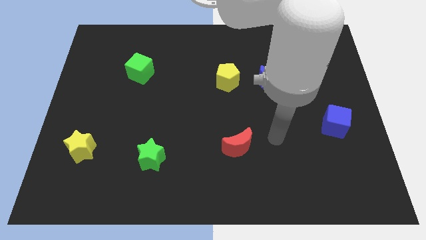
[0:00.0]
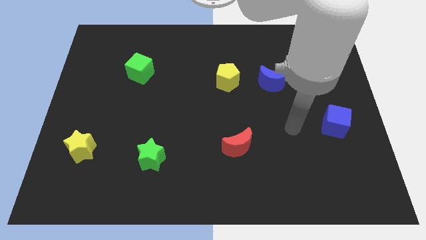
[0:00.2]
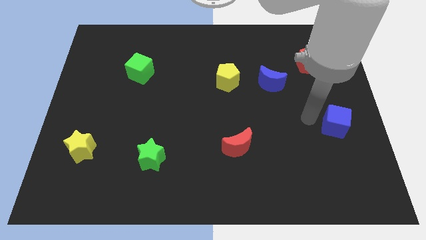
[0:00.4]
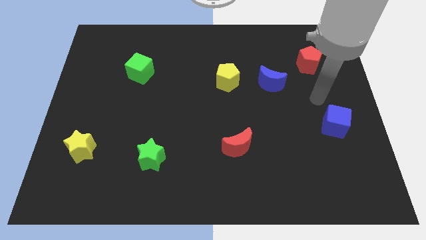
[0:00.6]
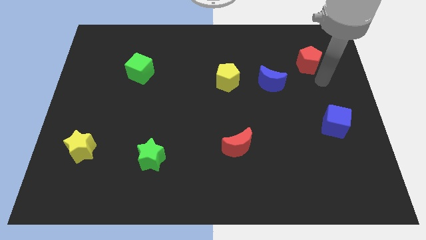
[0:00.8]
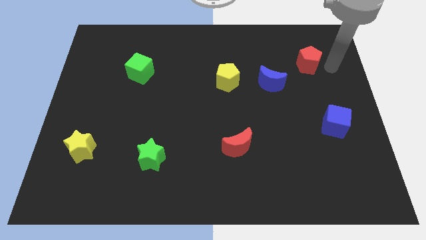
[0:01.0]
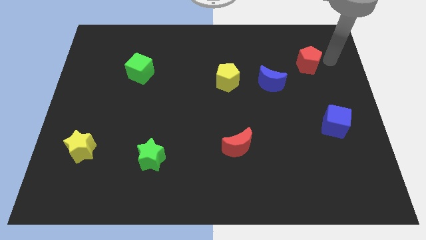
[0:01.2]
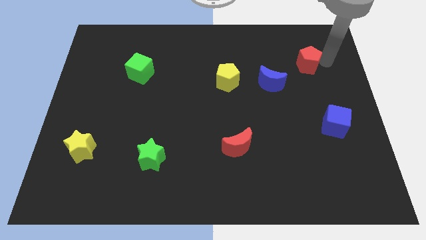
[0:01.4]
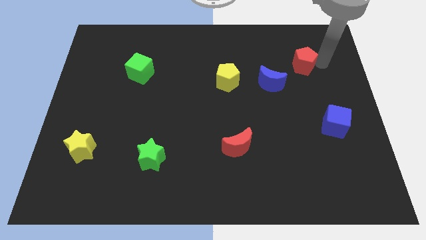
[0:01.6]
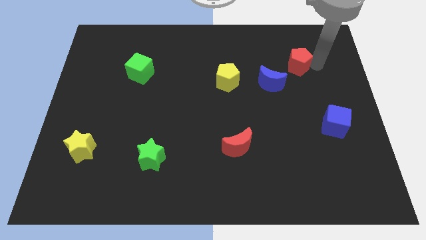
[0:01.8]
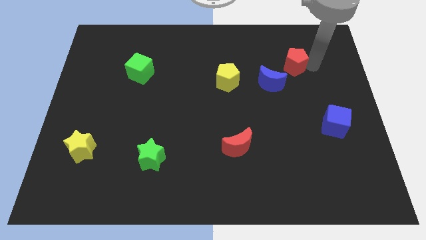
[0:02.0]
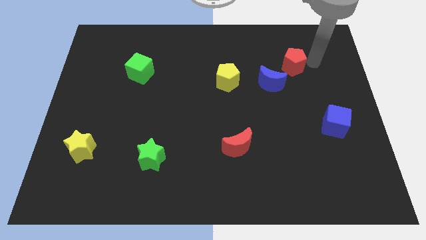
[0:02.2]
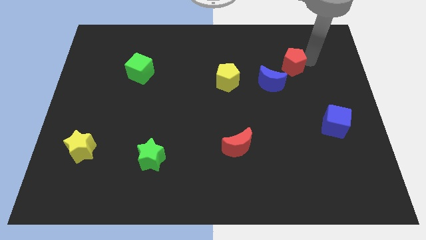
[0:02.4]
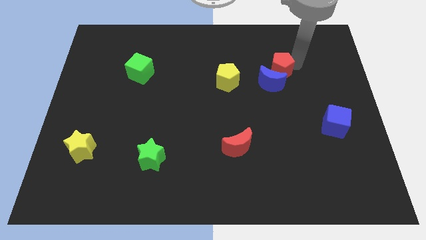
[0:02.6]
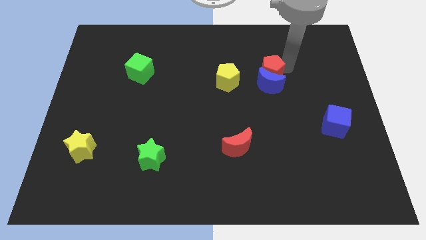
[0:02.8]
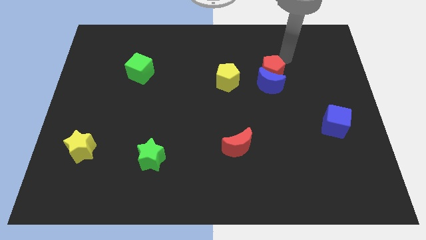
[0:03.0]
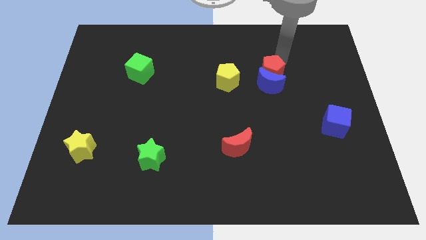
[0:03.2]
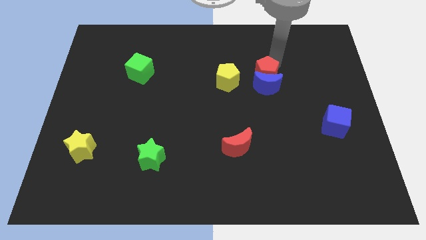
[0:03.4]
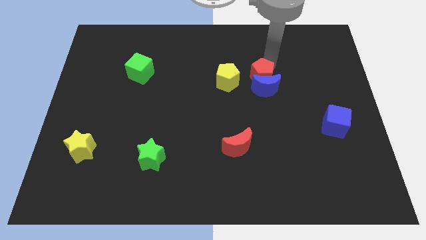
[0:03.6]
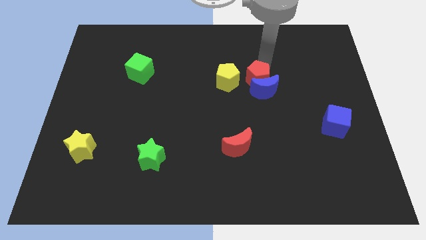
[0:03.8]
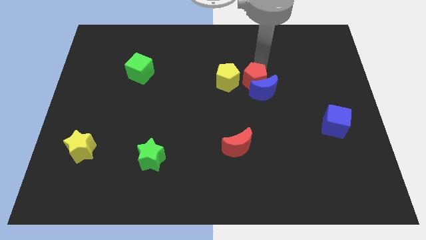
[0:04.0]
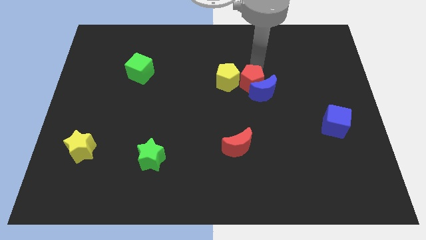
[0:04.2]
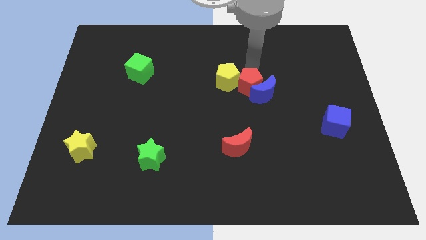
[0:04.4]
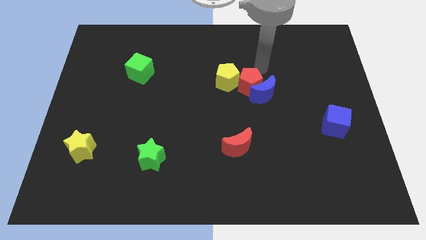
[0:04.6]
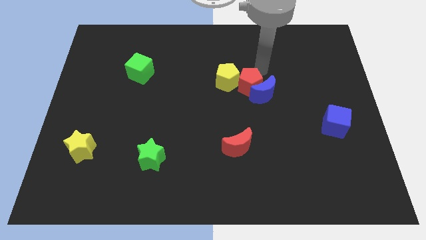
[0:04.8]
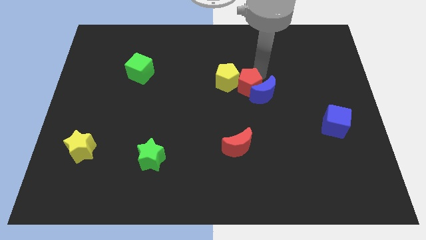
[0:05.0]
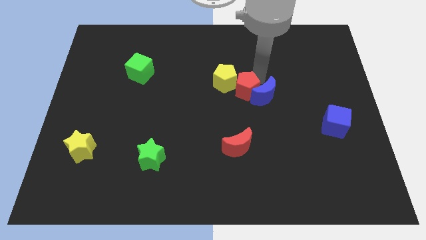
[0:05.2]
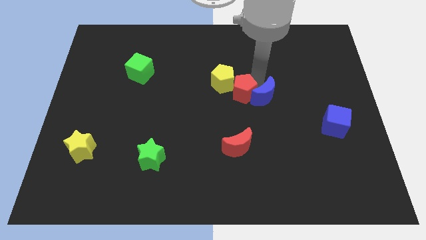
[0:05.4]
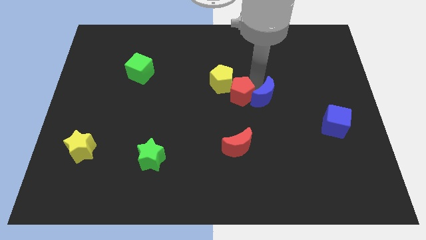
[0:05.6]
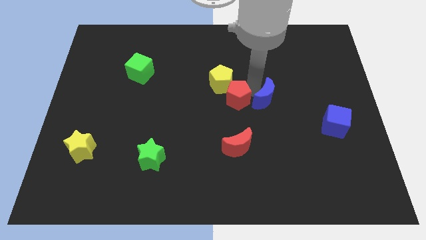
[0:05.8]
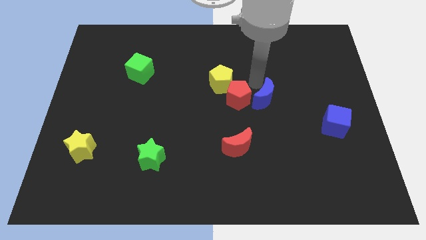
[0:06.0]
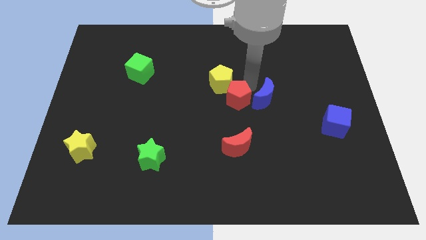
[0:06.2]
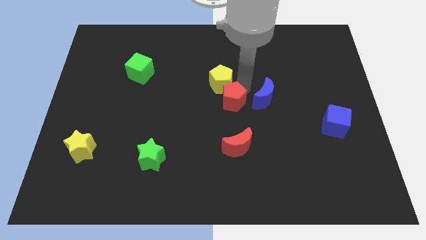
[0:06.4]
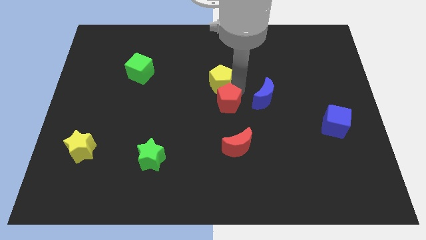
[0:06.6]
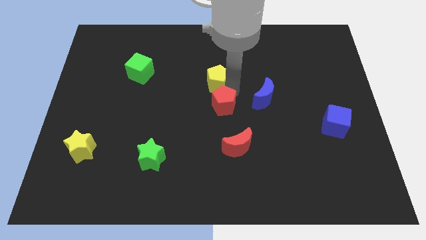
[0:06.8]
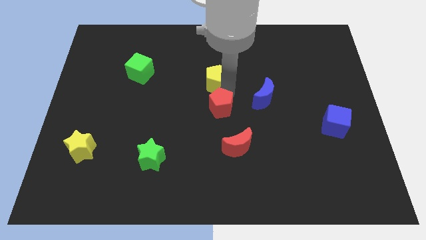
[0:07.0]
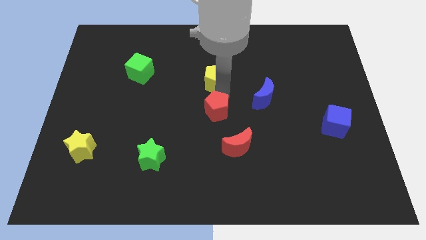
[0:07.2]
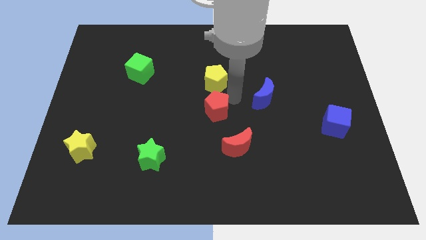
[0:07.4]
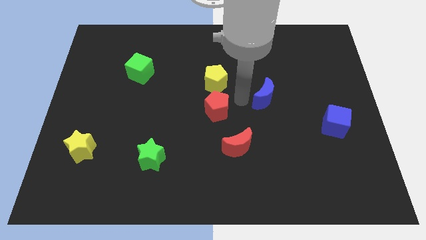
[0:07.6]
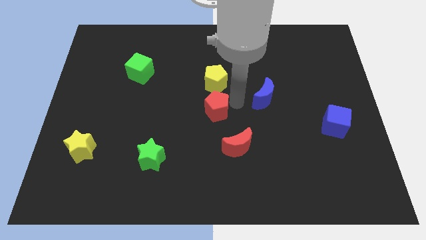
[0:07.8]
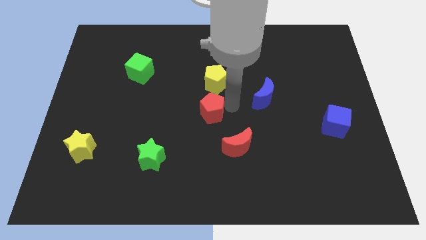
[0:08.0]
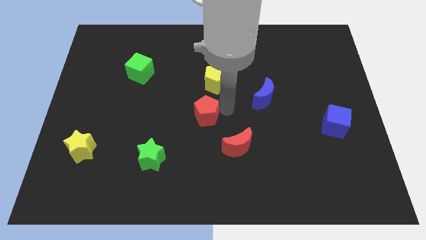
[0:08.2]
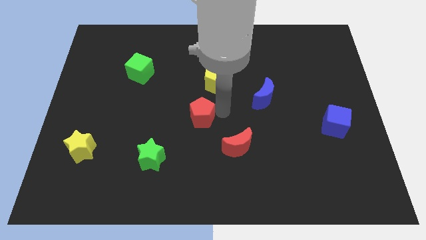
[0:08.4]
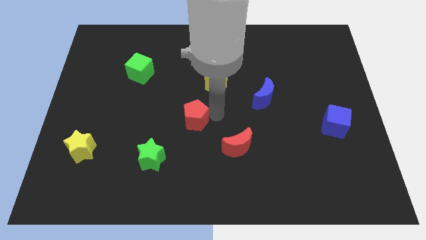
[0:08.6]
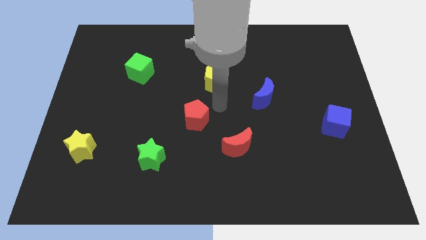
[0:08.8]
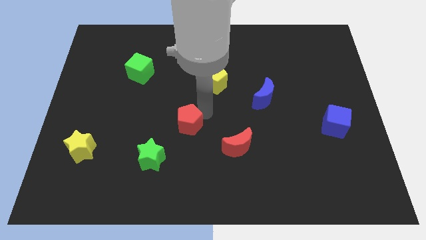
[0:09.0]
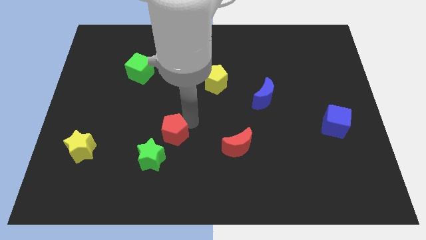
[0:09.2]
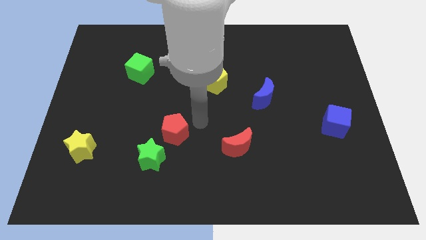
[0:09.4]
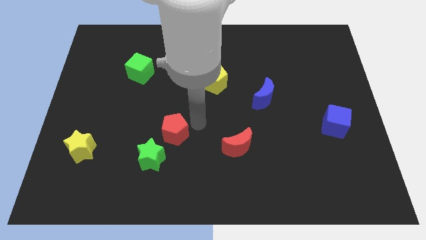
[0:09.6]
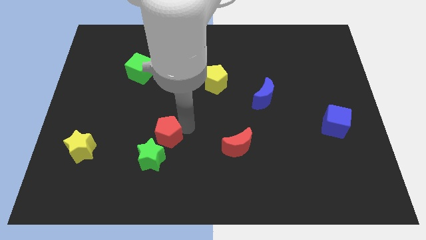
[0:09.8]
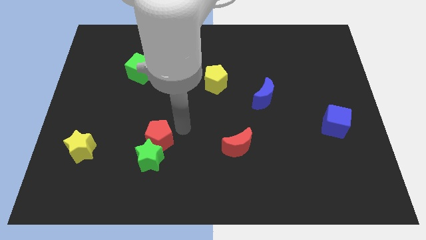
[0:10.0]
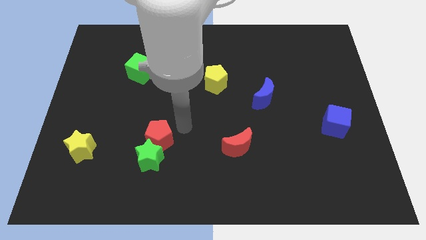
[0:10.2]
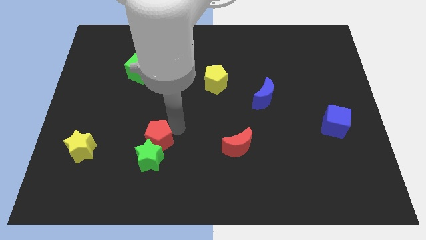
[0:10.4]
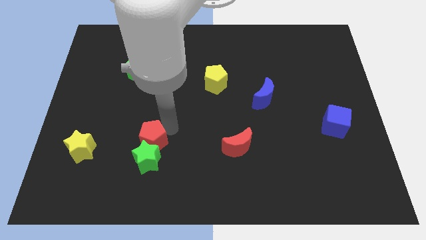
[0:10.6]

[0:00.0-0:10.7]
push the red pentagon to the right of the yellow star

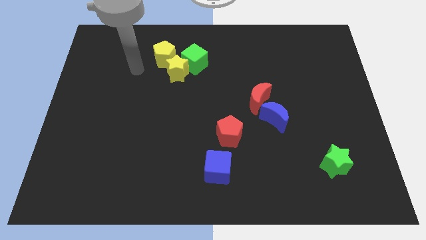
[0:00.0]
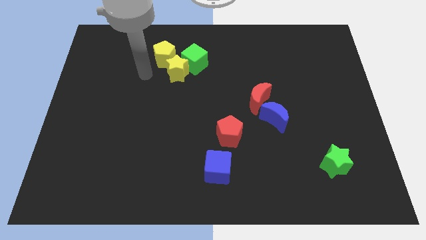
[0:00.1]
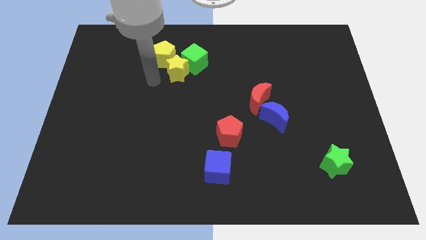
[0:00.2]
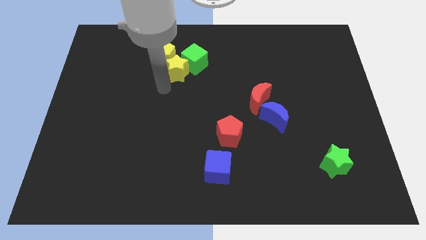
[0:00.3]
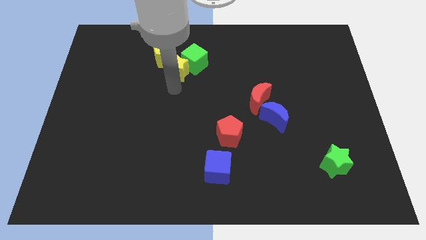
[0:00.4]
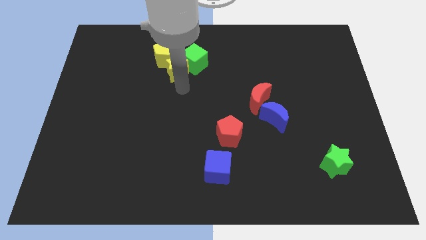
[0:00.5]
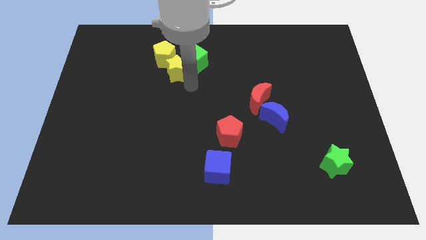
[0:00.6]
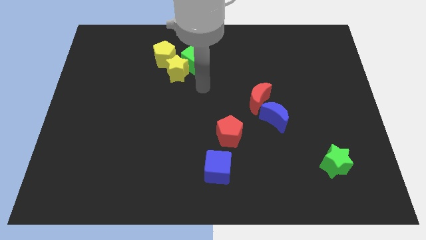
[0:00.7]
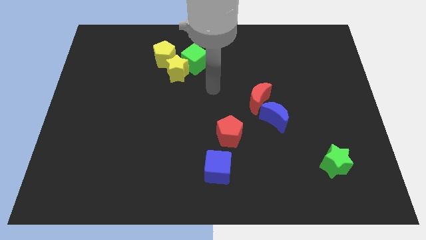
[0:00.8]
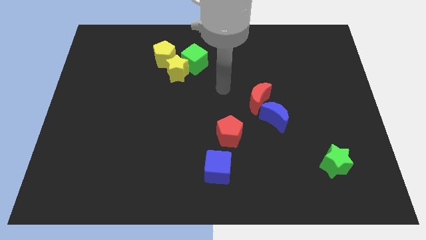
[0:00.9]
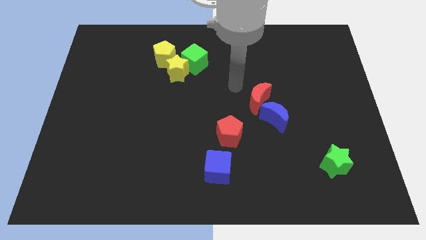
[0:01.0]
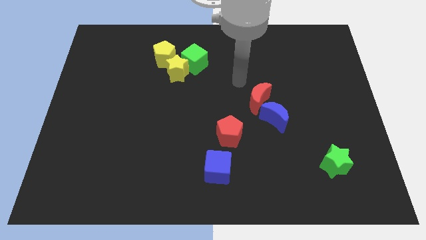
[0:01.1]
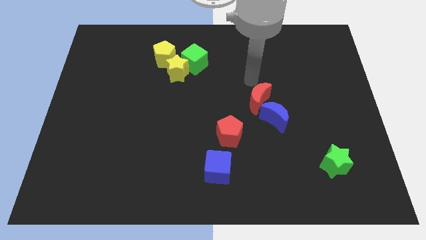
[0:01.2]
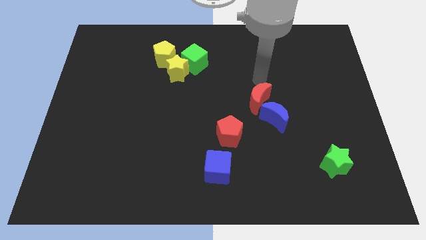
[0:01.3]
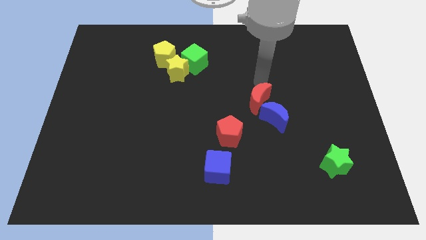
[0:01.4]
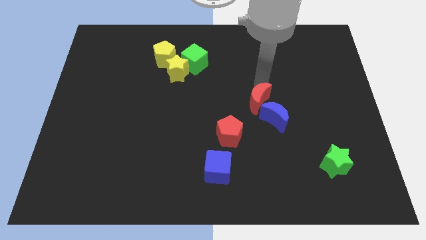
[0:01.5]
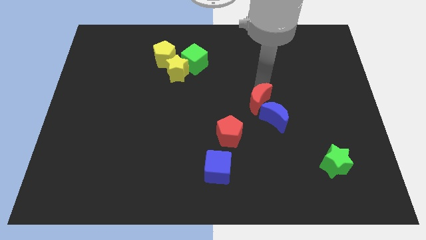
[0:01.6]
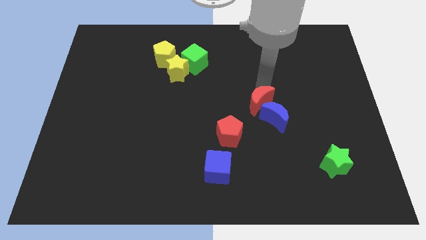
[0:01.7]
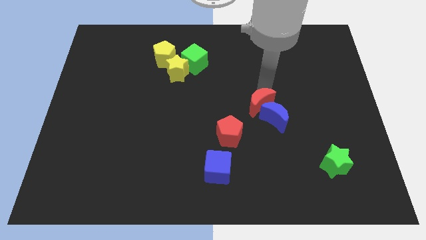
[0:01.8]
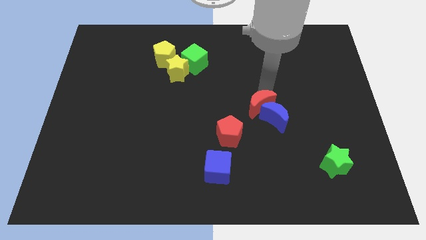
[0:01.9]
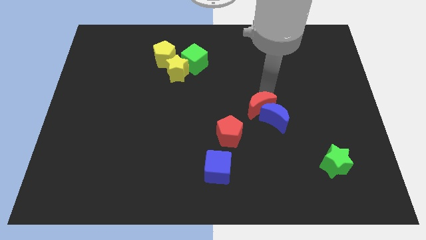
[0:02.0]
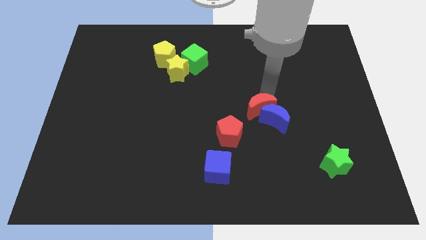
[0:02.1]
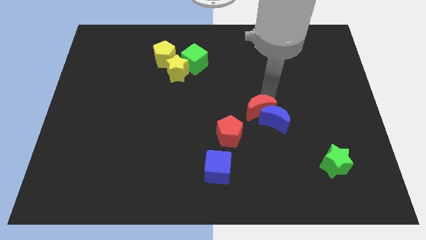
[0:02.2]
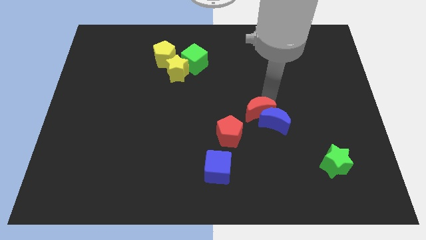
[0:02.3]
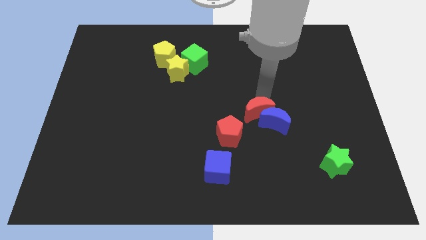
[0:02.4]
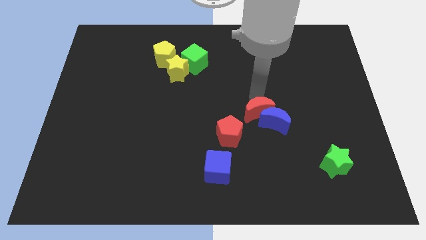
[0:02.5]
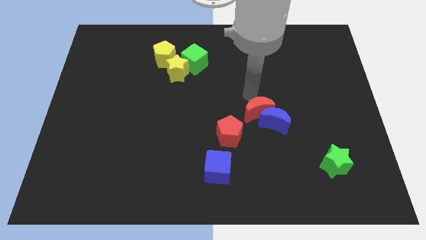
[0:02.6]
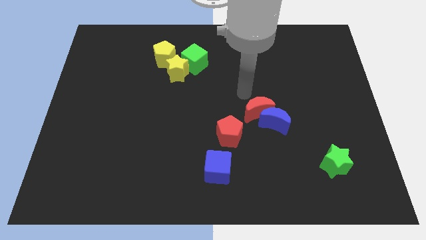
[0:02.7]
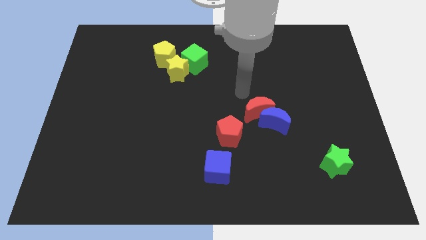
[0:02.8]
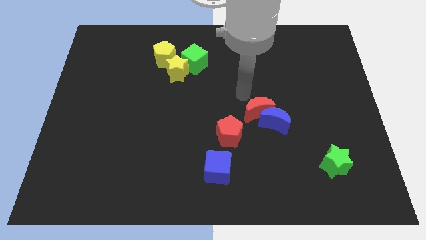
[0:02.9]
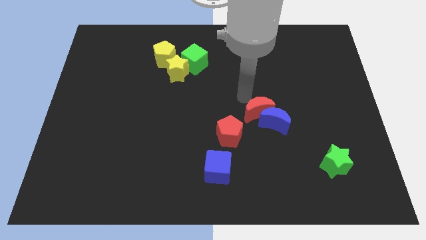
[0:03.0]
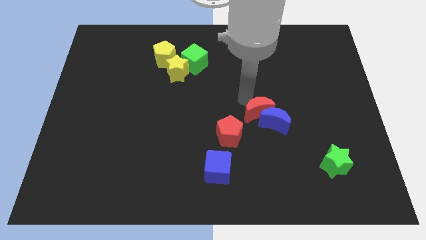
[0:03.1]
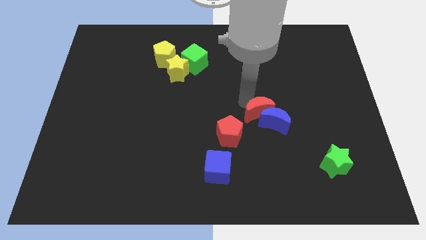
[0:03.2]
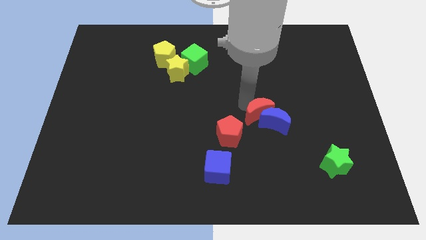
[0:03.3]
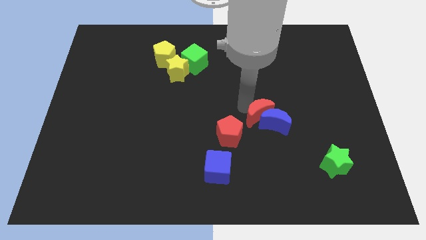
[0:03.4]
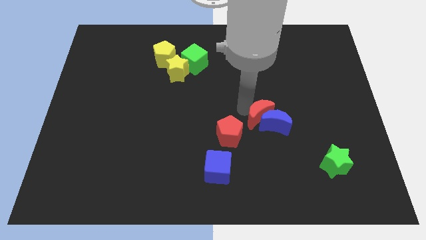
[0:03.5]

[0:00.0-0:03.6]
put the red moon right of the red pentagon
